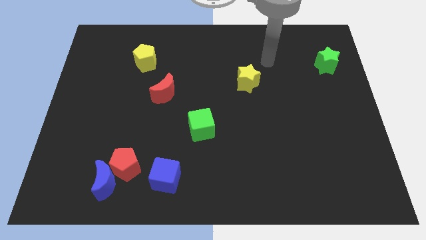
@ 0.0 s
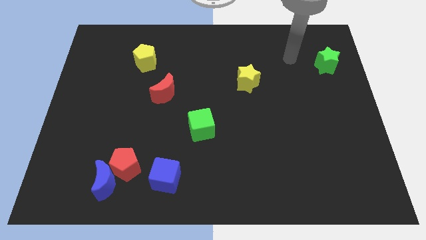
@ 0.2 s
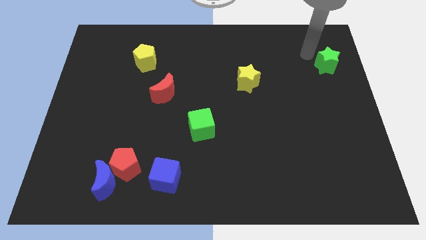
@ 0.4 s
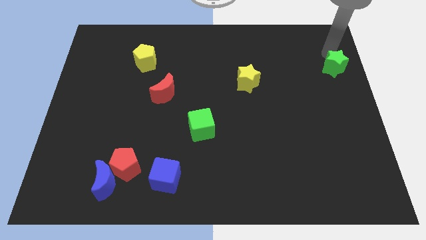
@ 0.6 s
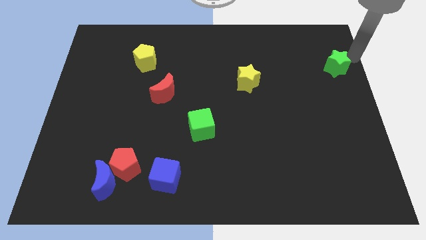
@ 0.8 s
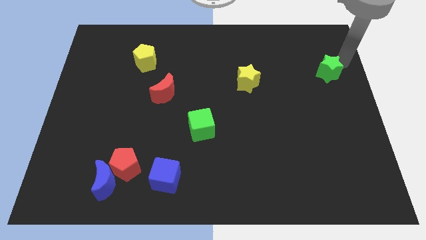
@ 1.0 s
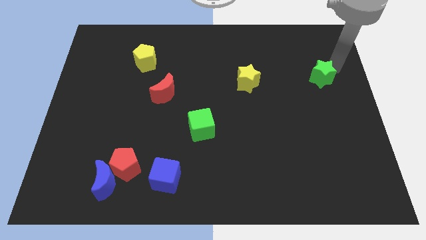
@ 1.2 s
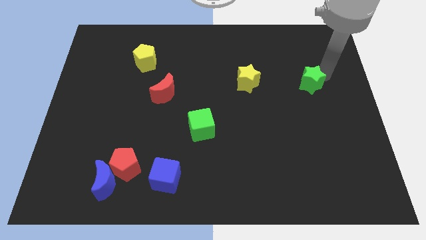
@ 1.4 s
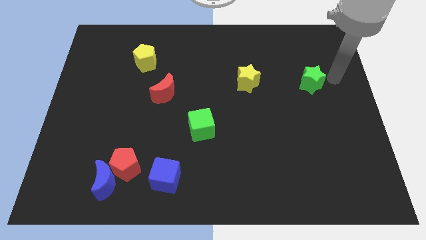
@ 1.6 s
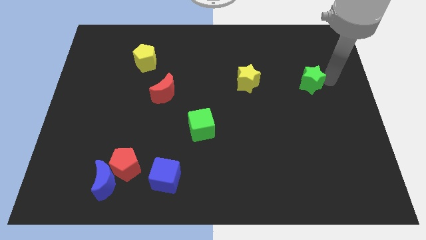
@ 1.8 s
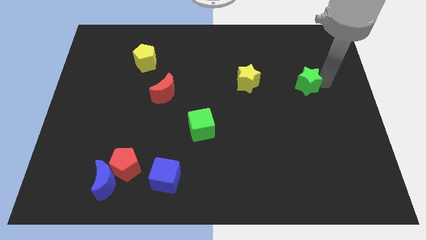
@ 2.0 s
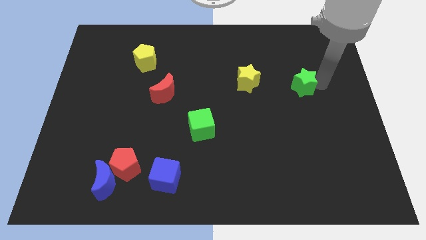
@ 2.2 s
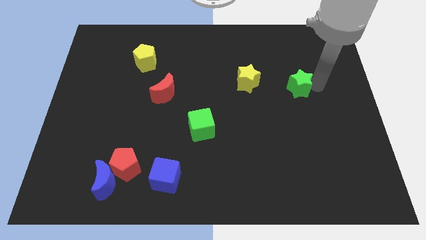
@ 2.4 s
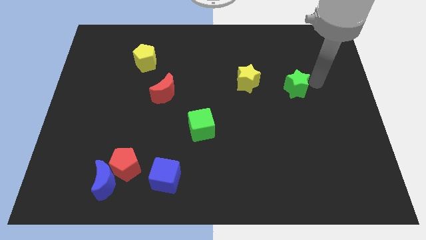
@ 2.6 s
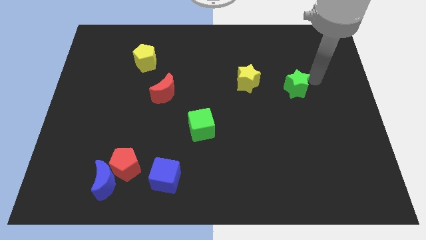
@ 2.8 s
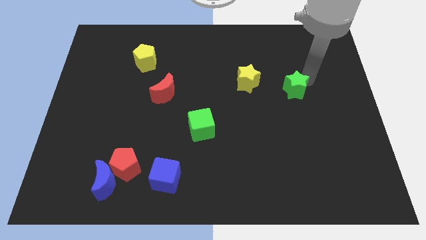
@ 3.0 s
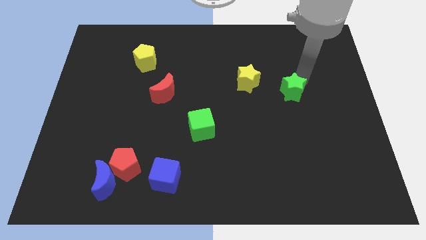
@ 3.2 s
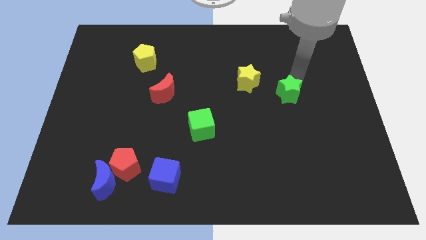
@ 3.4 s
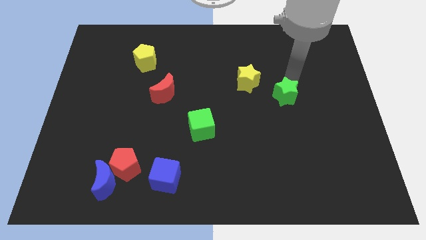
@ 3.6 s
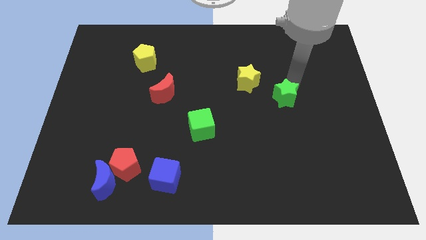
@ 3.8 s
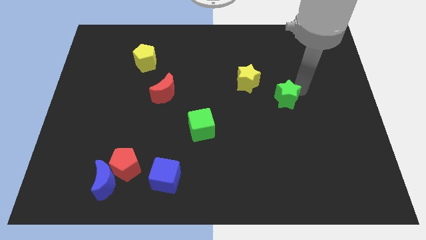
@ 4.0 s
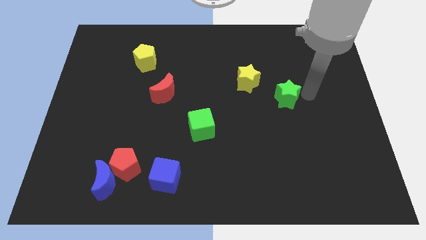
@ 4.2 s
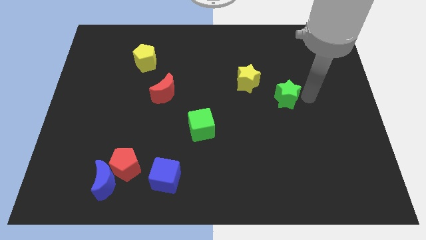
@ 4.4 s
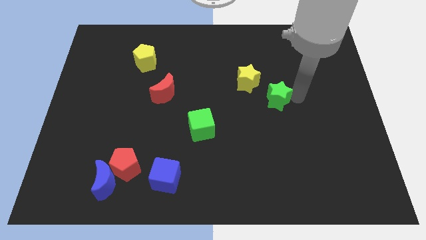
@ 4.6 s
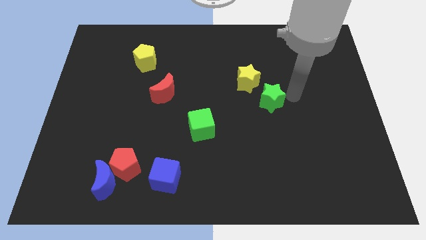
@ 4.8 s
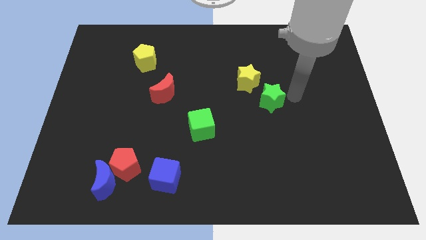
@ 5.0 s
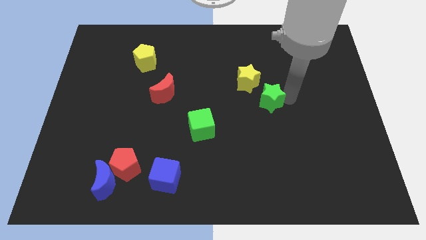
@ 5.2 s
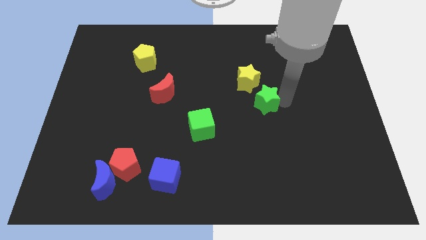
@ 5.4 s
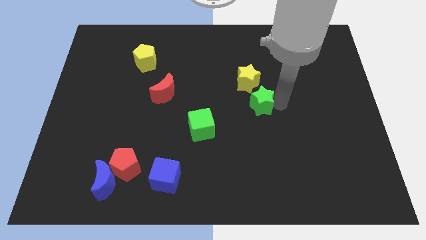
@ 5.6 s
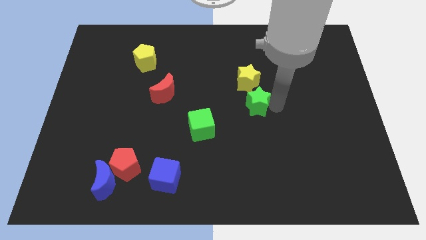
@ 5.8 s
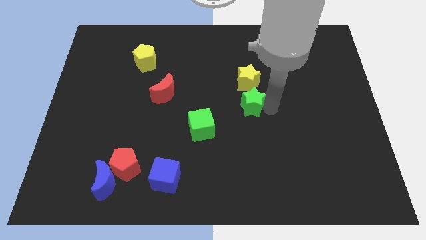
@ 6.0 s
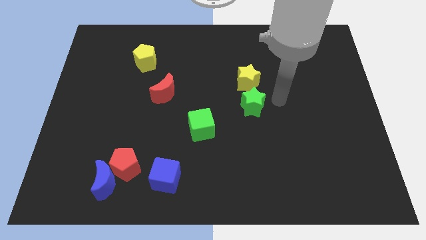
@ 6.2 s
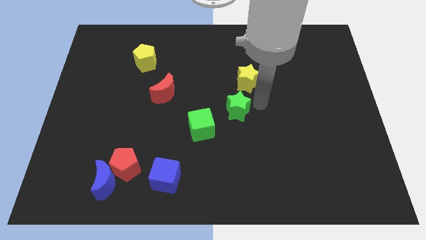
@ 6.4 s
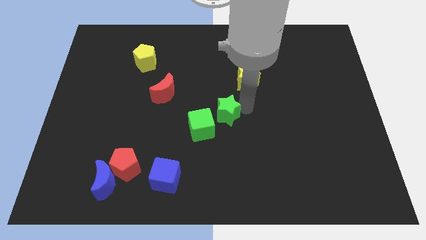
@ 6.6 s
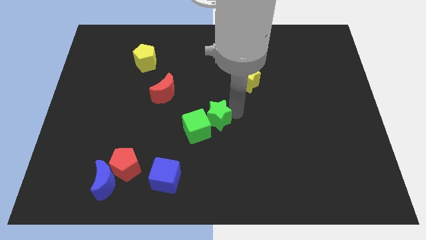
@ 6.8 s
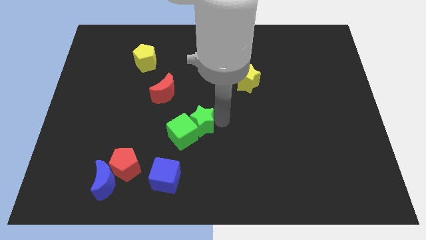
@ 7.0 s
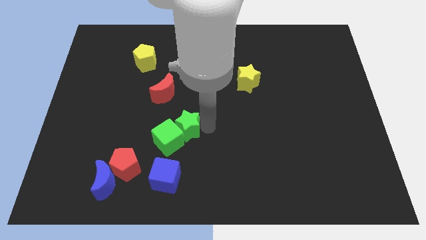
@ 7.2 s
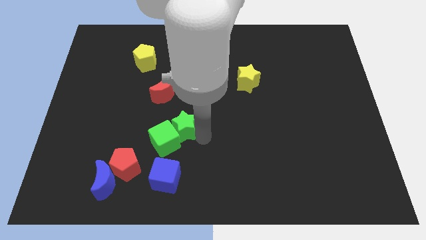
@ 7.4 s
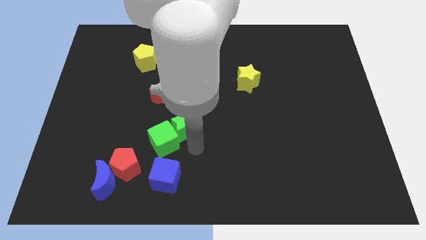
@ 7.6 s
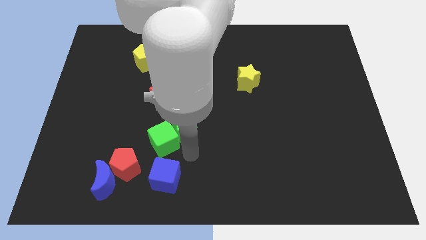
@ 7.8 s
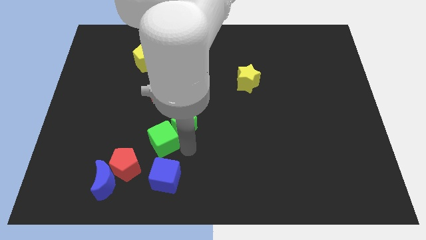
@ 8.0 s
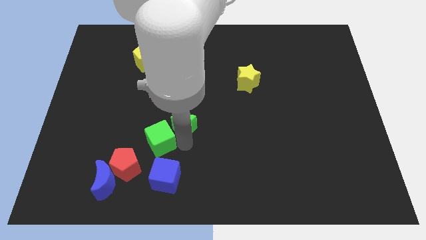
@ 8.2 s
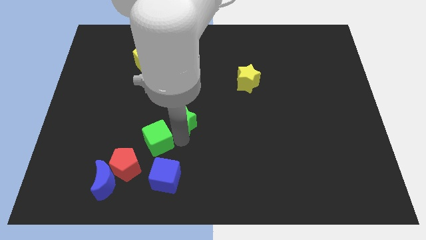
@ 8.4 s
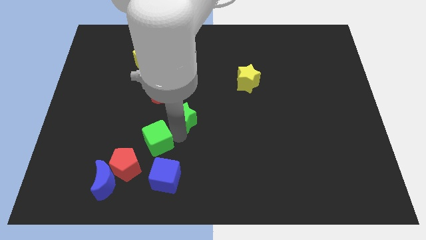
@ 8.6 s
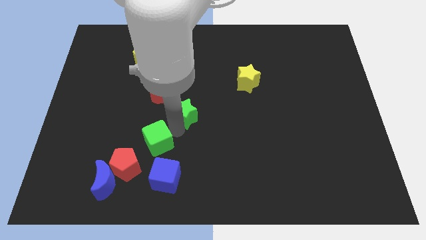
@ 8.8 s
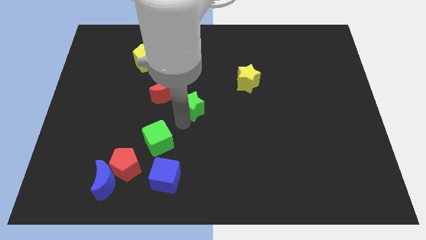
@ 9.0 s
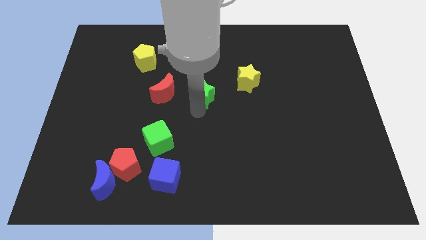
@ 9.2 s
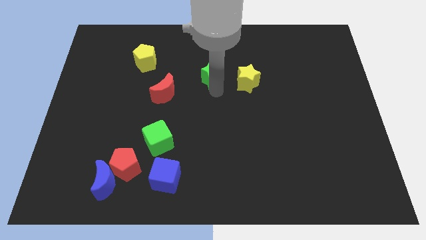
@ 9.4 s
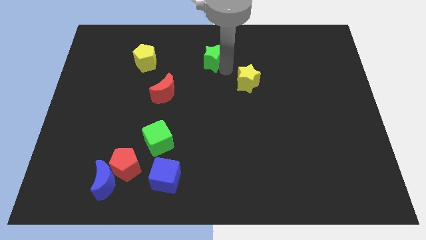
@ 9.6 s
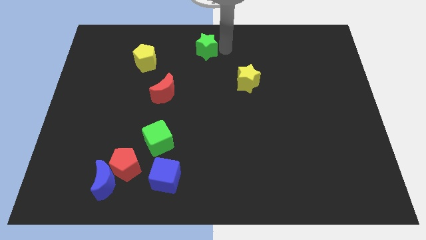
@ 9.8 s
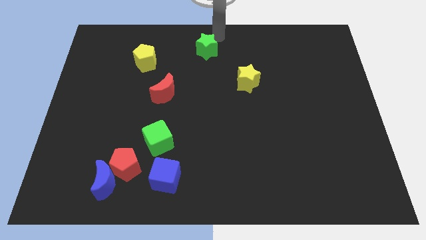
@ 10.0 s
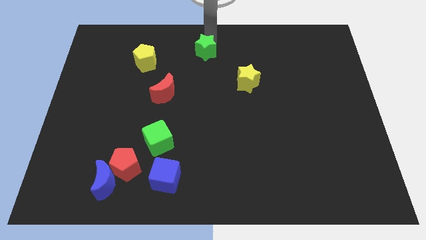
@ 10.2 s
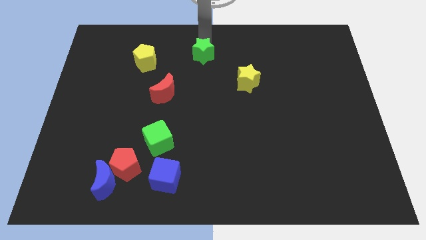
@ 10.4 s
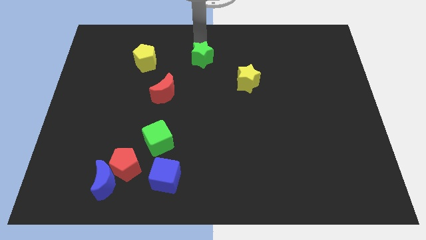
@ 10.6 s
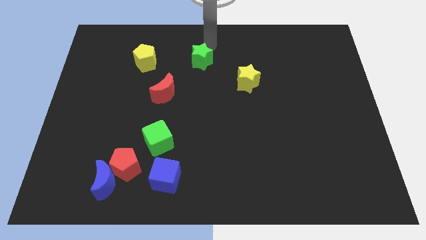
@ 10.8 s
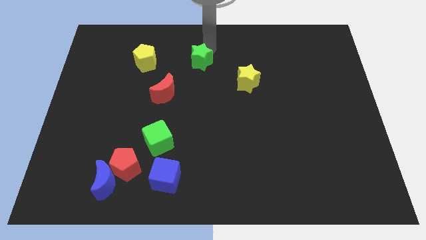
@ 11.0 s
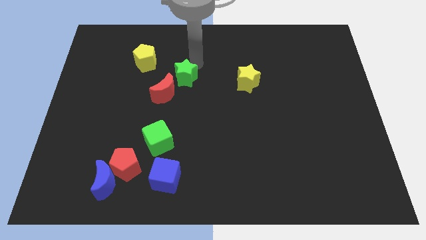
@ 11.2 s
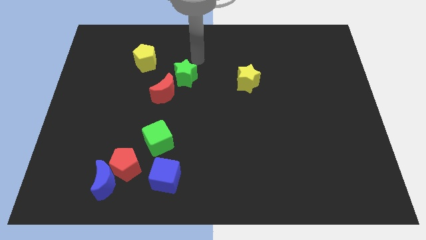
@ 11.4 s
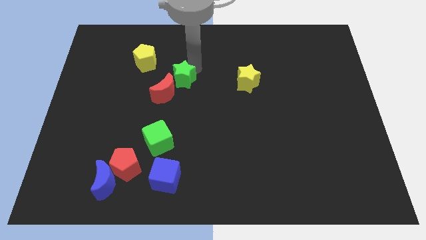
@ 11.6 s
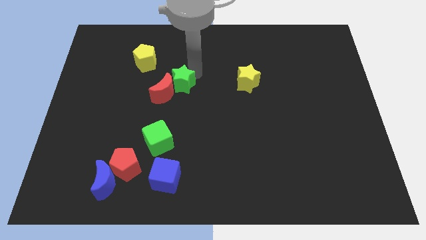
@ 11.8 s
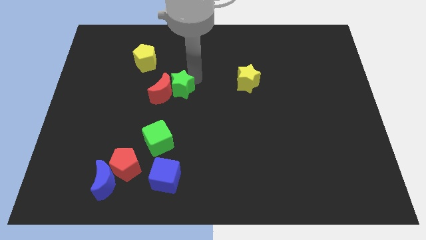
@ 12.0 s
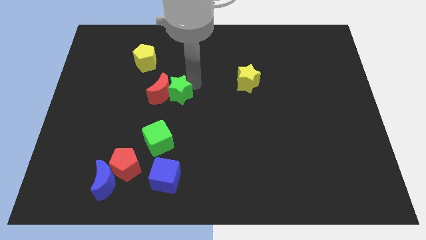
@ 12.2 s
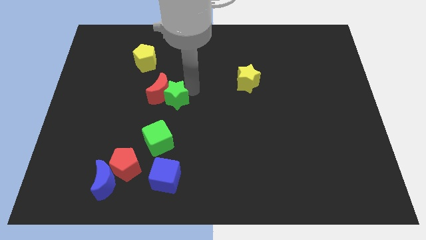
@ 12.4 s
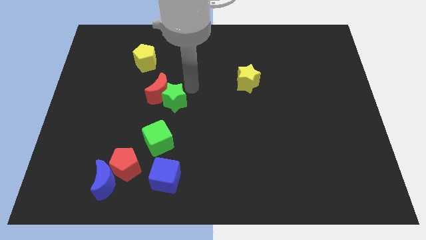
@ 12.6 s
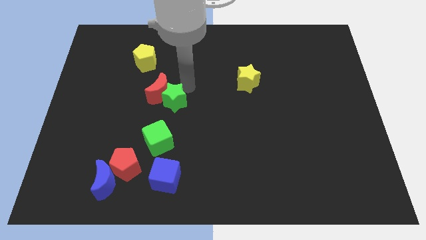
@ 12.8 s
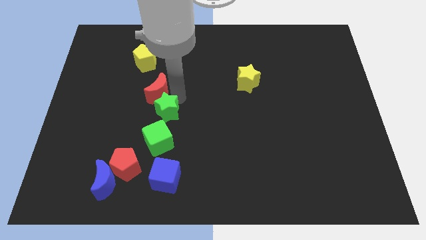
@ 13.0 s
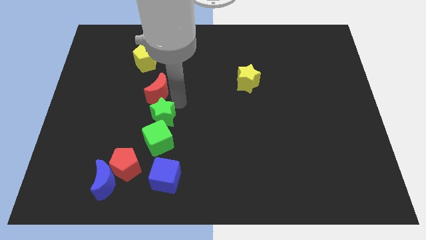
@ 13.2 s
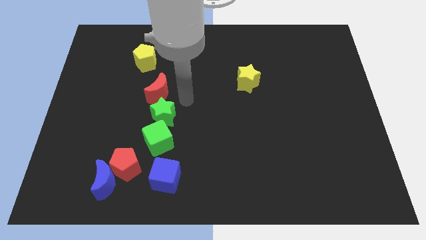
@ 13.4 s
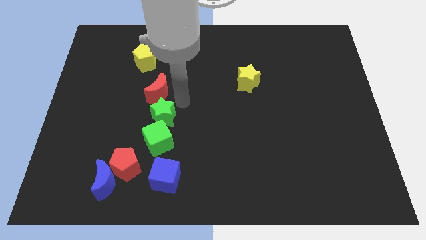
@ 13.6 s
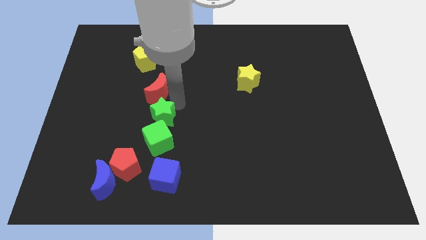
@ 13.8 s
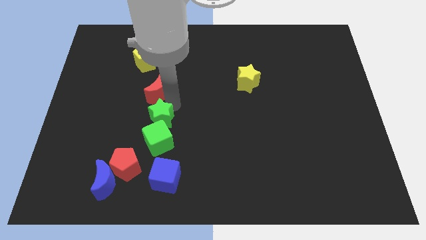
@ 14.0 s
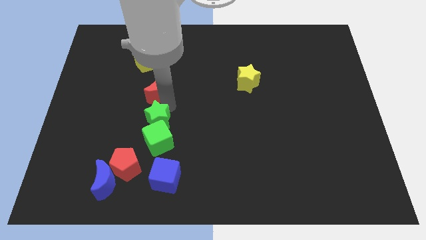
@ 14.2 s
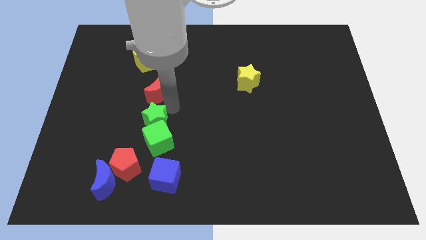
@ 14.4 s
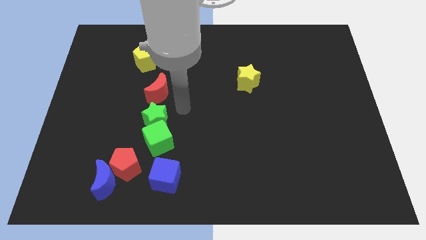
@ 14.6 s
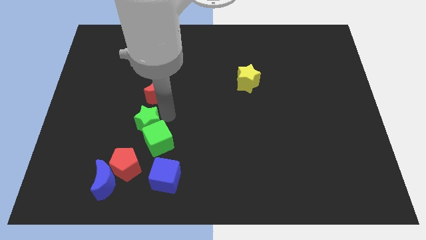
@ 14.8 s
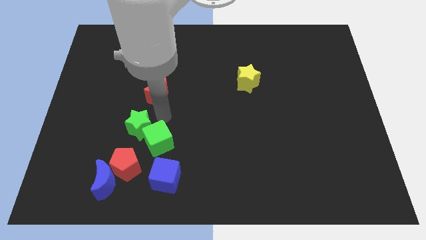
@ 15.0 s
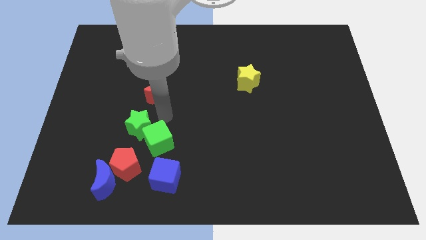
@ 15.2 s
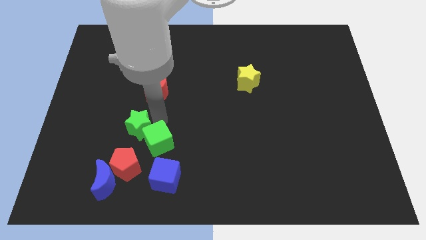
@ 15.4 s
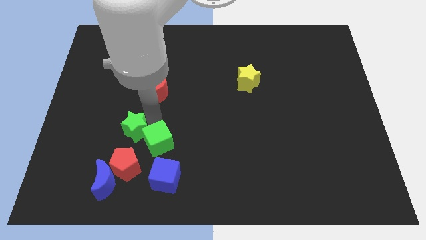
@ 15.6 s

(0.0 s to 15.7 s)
push the green star to the top of the blue moon
